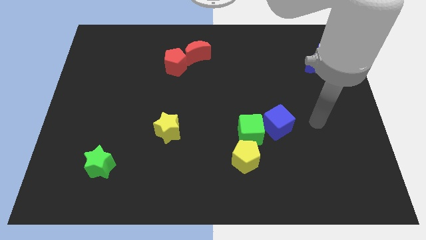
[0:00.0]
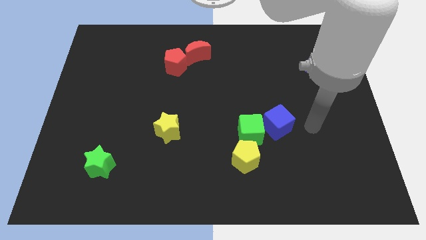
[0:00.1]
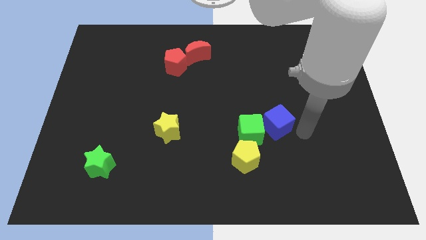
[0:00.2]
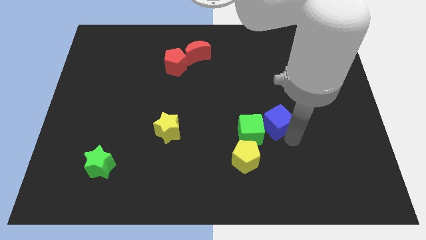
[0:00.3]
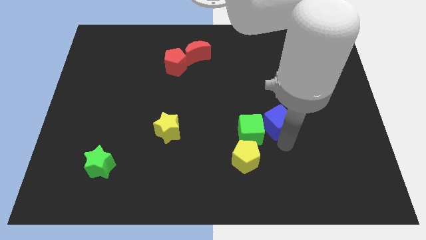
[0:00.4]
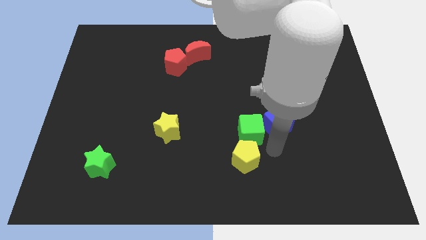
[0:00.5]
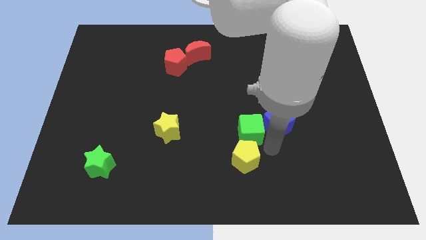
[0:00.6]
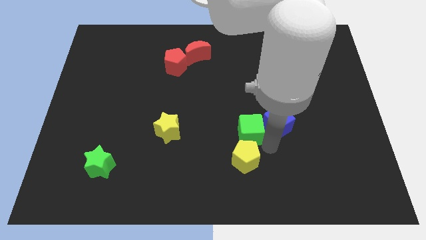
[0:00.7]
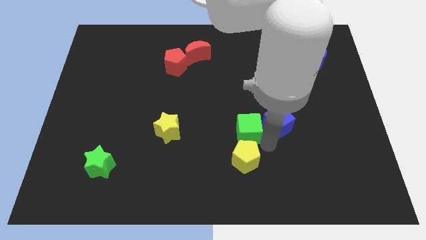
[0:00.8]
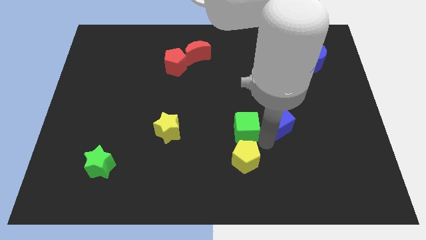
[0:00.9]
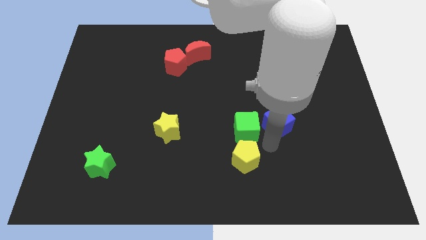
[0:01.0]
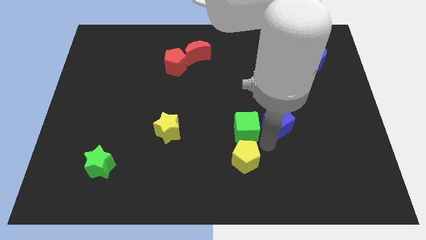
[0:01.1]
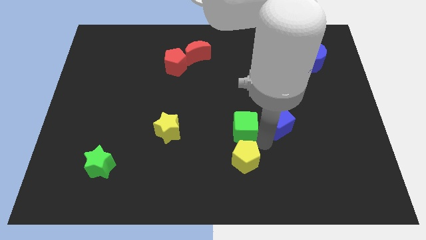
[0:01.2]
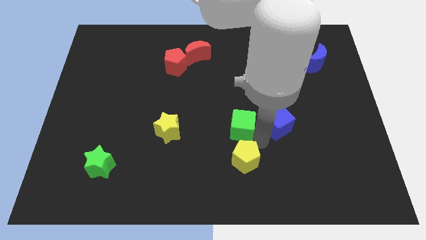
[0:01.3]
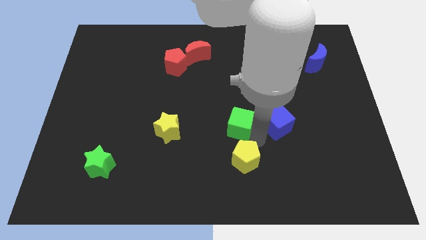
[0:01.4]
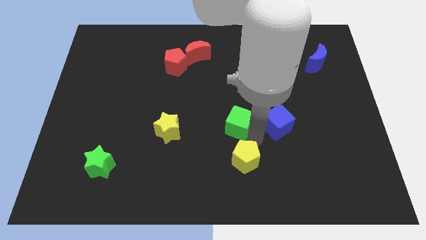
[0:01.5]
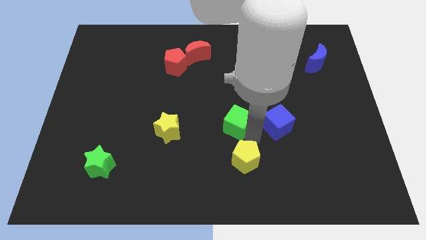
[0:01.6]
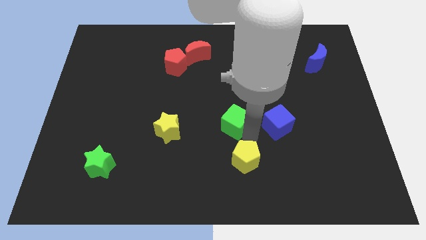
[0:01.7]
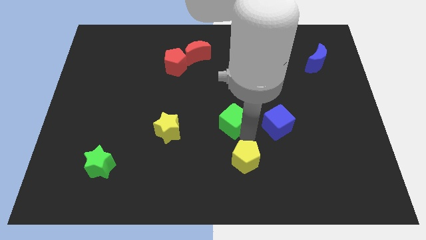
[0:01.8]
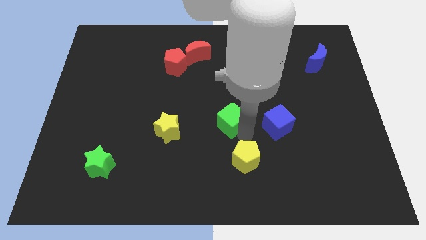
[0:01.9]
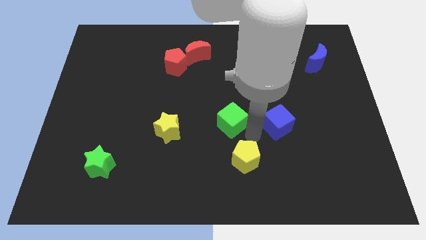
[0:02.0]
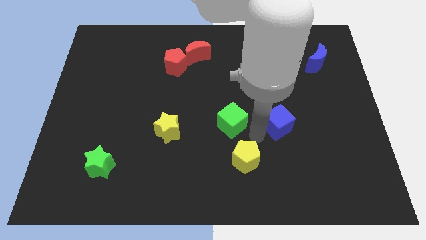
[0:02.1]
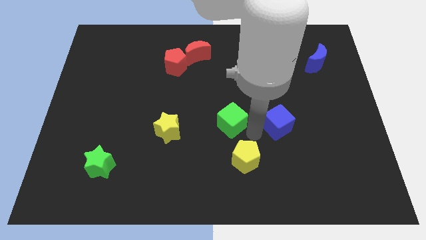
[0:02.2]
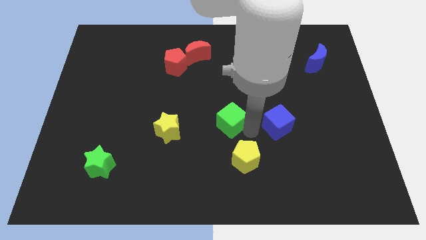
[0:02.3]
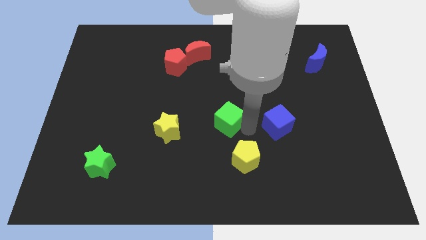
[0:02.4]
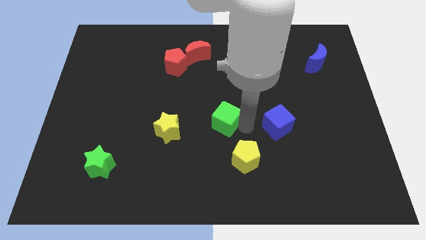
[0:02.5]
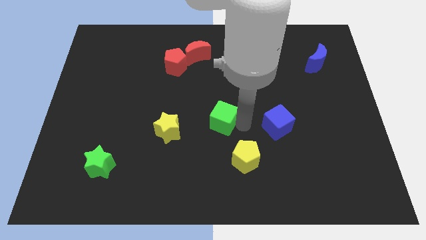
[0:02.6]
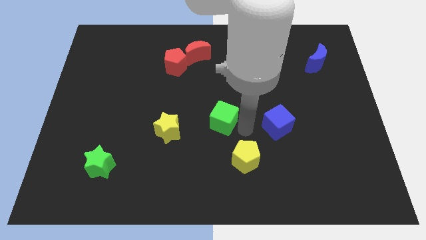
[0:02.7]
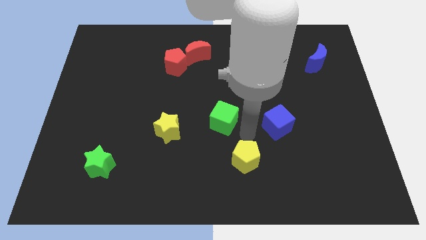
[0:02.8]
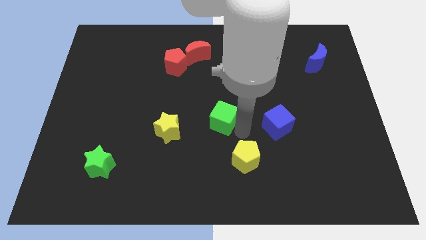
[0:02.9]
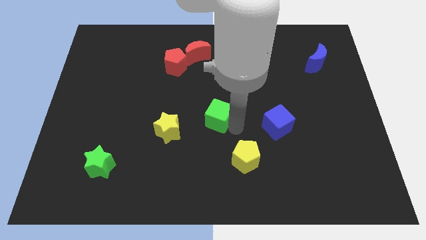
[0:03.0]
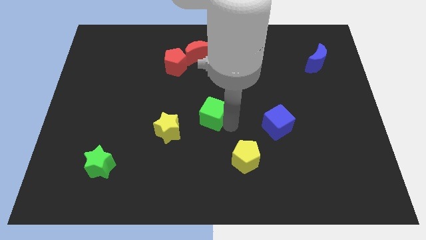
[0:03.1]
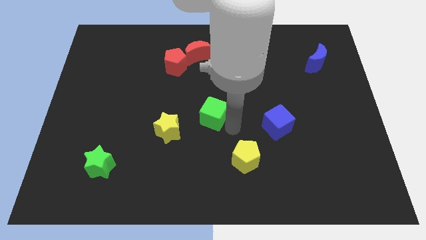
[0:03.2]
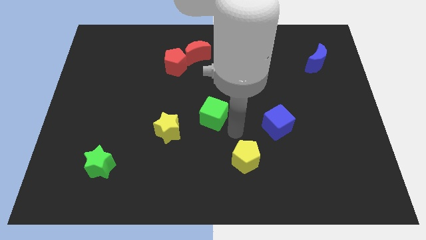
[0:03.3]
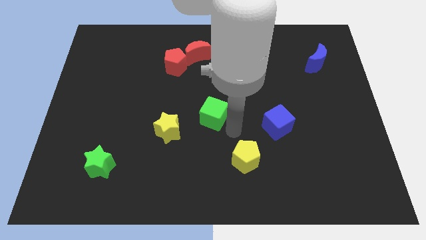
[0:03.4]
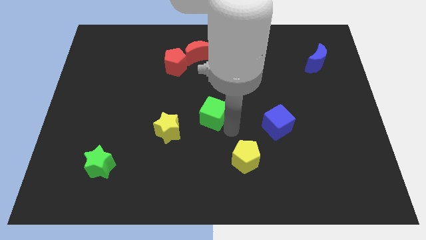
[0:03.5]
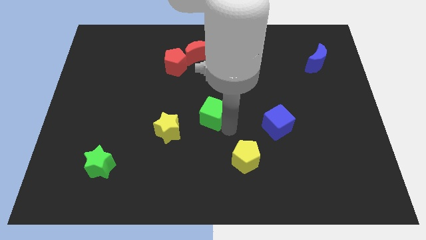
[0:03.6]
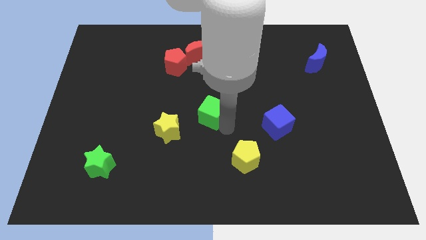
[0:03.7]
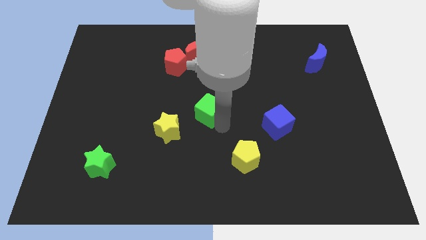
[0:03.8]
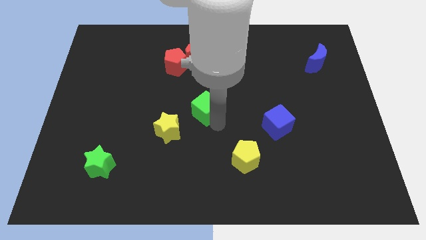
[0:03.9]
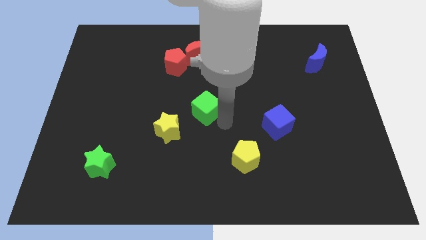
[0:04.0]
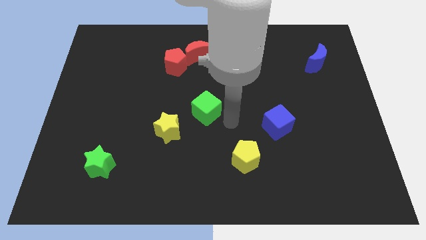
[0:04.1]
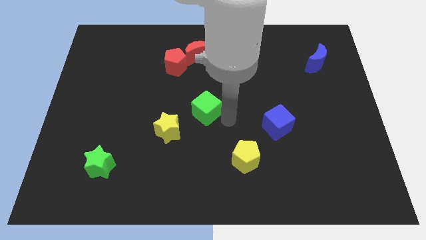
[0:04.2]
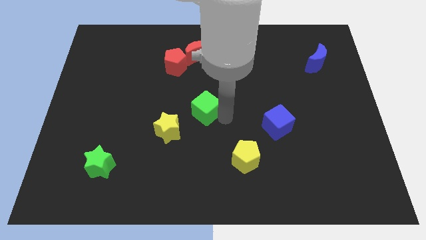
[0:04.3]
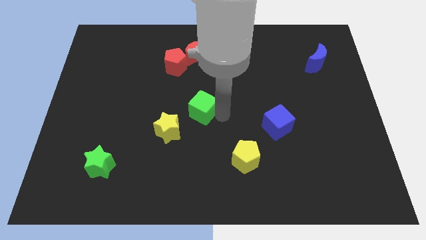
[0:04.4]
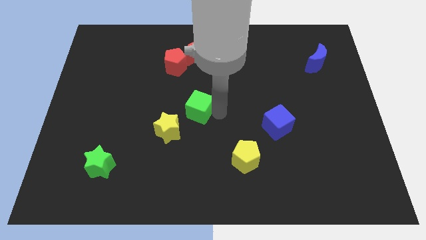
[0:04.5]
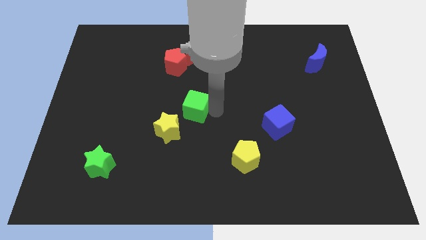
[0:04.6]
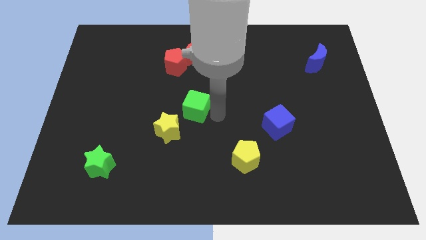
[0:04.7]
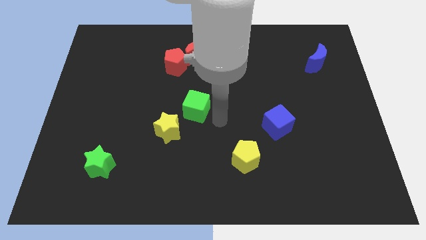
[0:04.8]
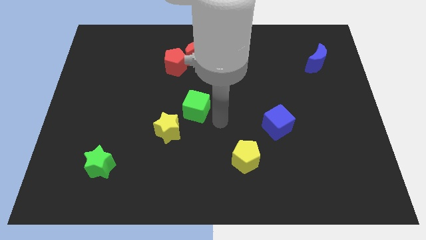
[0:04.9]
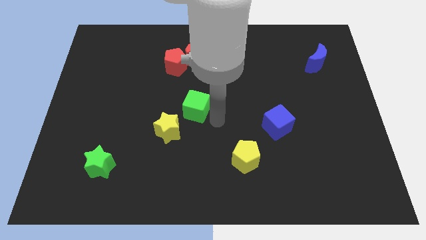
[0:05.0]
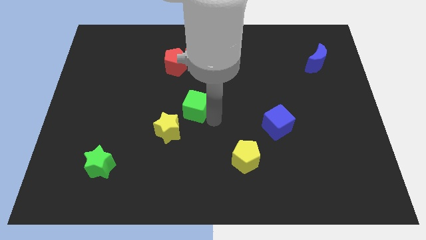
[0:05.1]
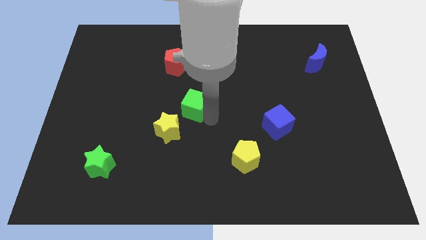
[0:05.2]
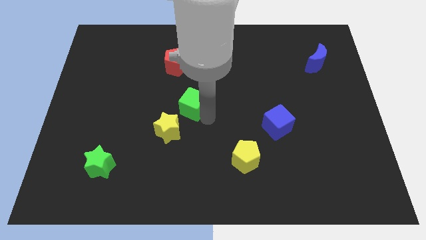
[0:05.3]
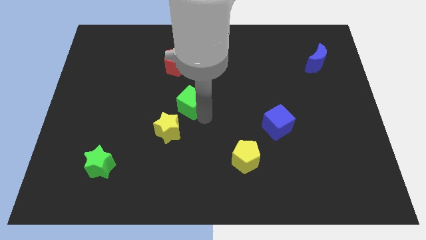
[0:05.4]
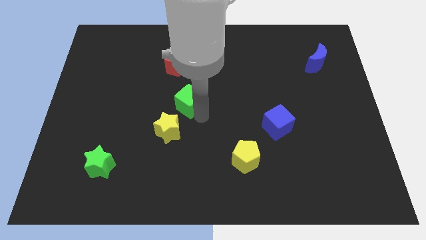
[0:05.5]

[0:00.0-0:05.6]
move the green cube to the bottom side of the red pentagon

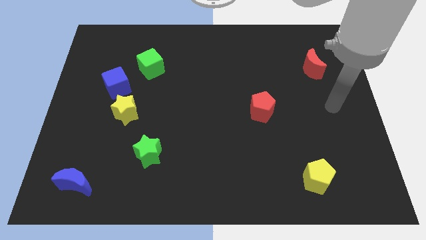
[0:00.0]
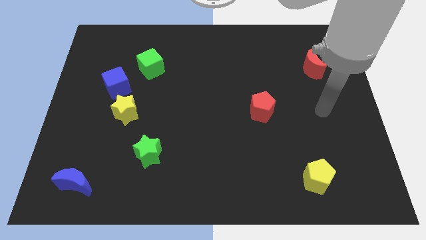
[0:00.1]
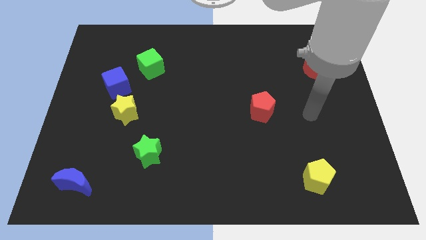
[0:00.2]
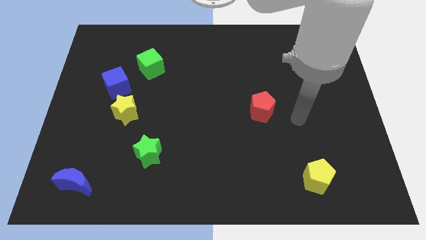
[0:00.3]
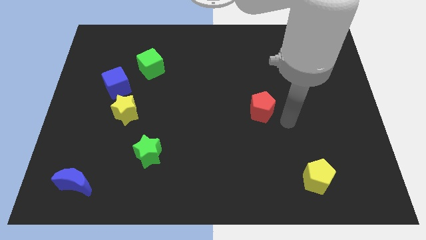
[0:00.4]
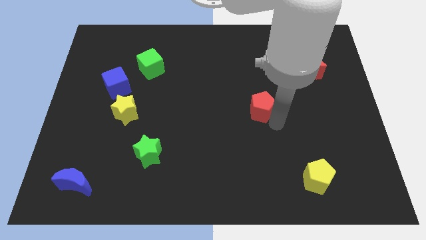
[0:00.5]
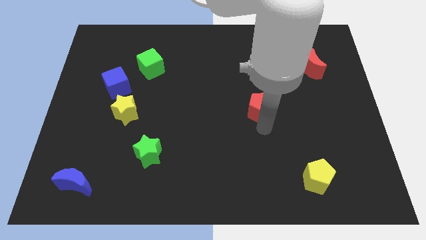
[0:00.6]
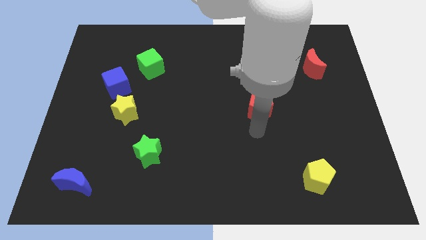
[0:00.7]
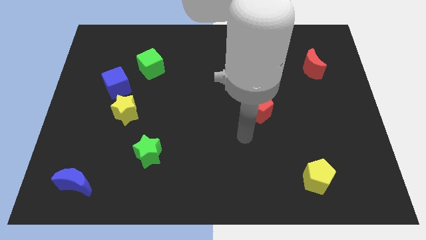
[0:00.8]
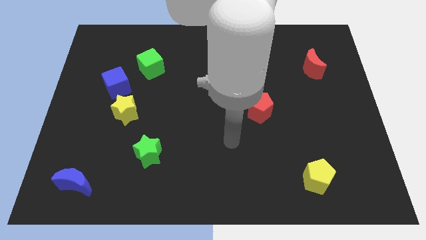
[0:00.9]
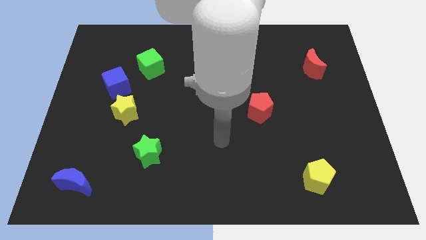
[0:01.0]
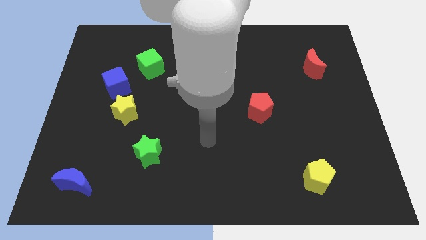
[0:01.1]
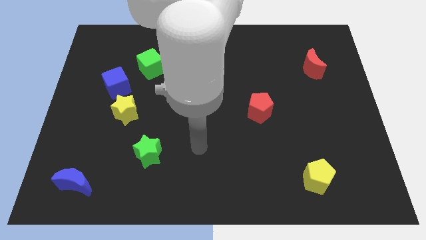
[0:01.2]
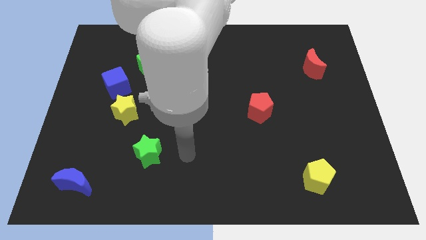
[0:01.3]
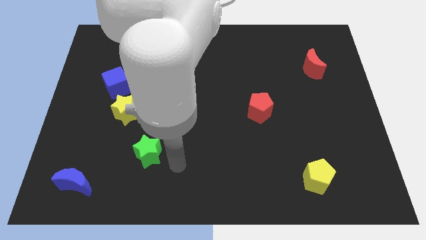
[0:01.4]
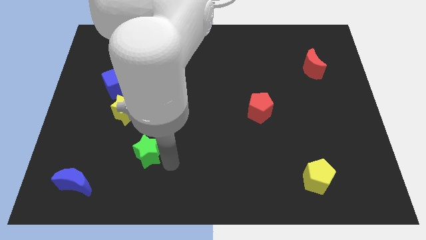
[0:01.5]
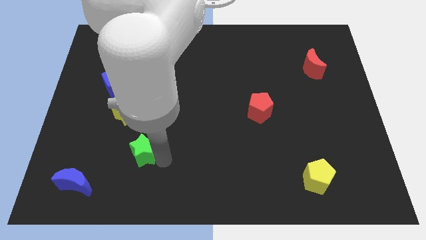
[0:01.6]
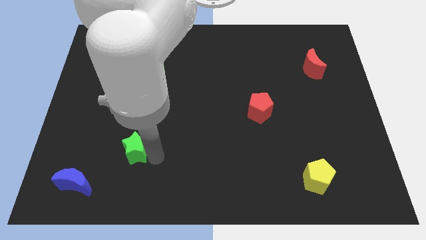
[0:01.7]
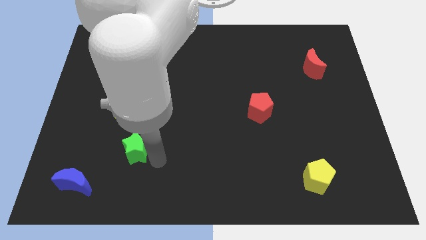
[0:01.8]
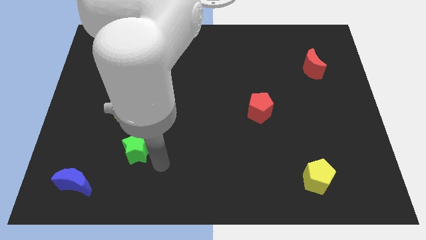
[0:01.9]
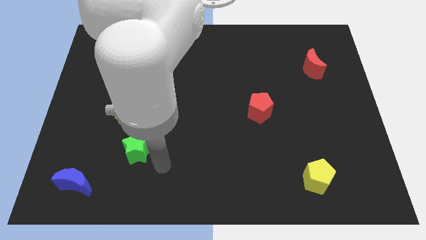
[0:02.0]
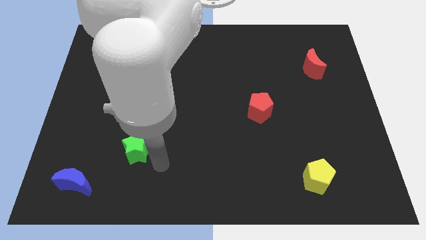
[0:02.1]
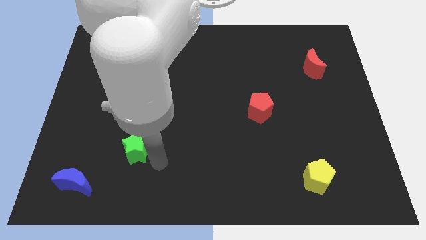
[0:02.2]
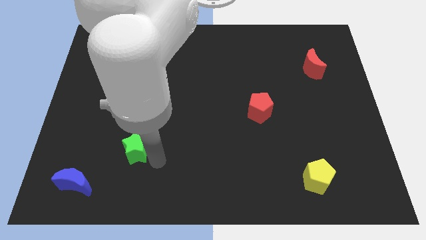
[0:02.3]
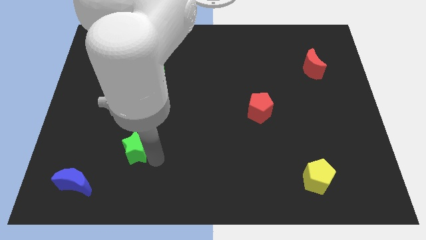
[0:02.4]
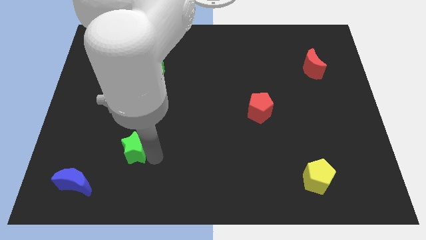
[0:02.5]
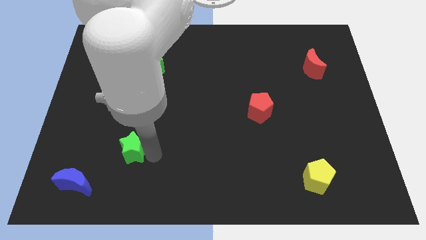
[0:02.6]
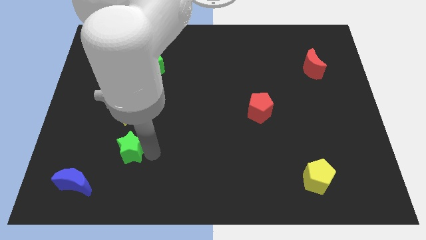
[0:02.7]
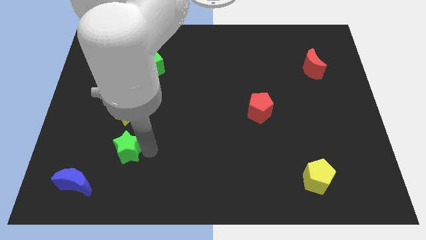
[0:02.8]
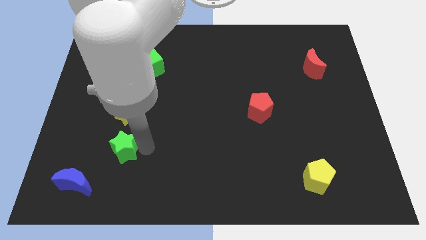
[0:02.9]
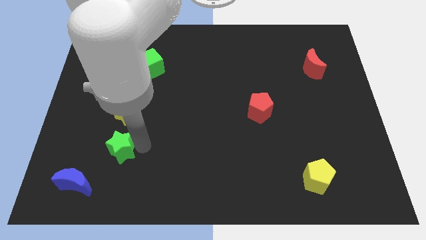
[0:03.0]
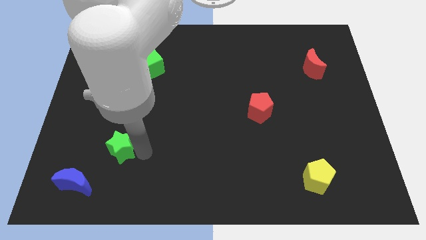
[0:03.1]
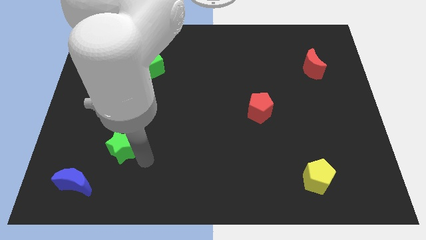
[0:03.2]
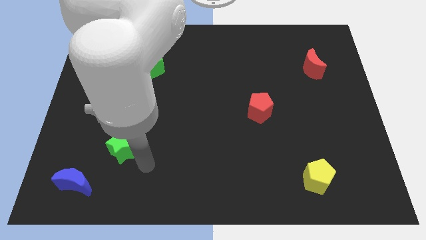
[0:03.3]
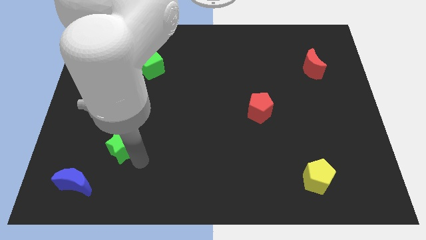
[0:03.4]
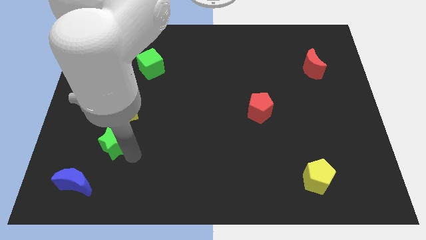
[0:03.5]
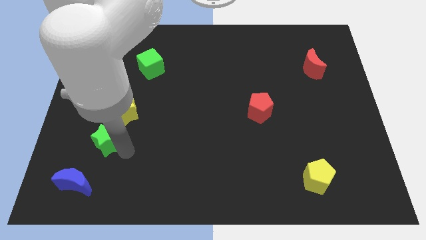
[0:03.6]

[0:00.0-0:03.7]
slide the green star to the bottom left side of the yellow star
